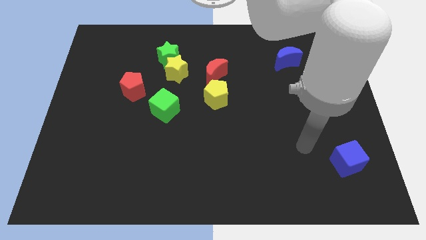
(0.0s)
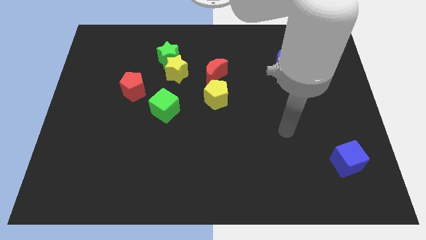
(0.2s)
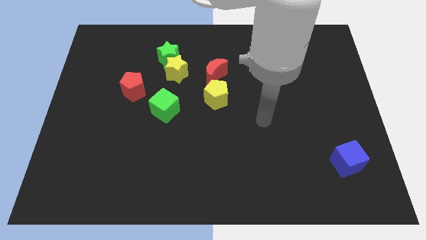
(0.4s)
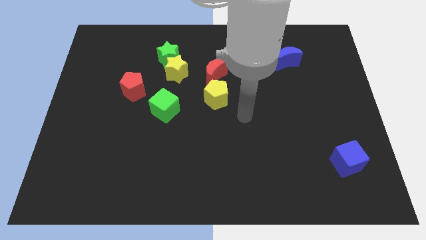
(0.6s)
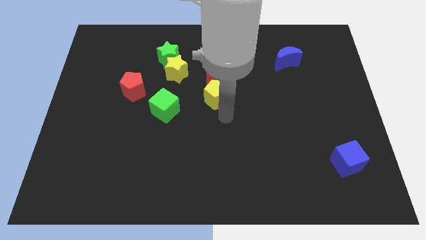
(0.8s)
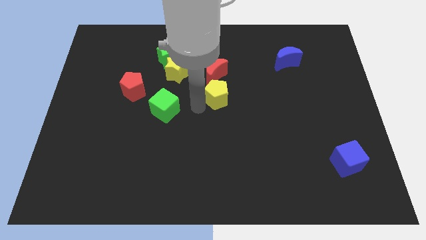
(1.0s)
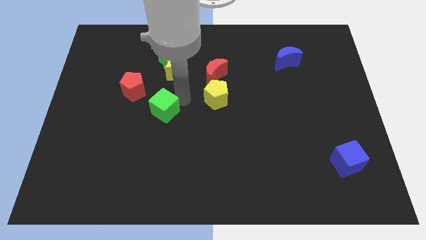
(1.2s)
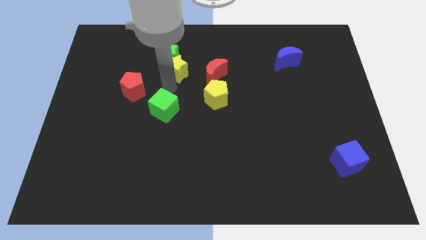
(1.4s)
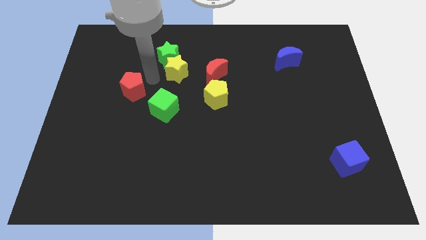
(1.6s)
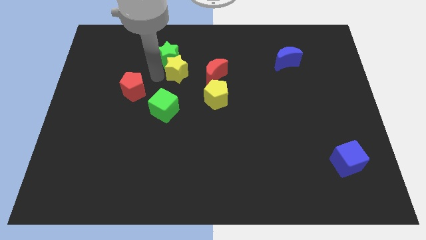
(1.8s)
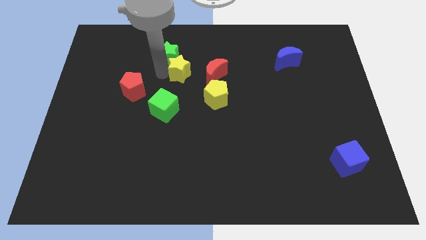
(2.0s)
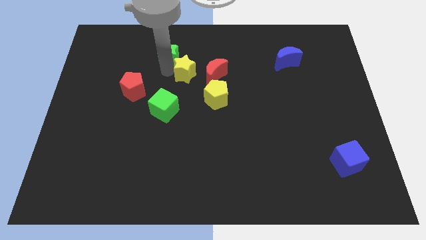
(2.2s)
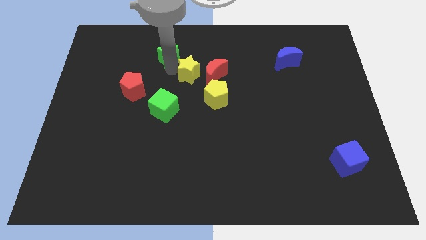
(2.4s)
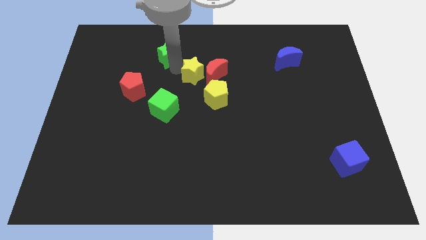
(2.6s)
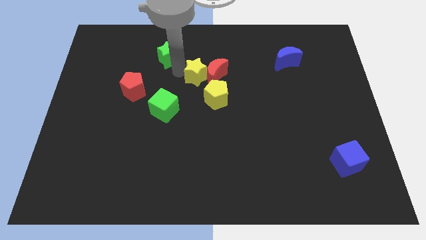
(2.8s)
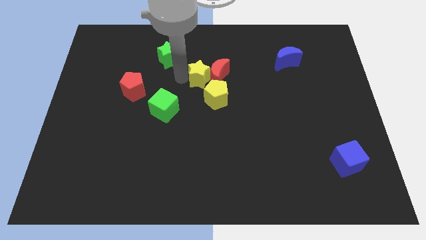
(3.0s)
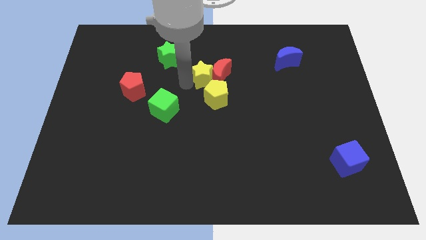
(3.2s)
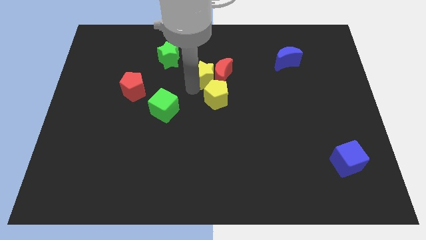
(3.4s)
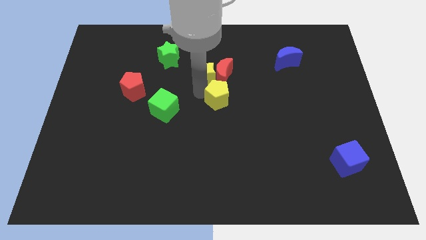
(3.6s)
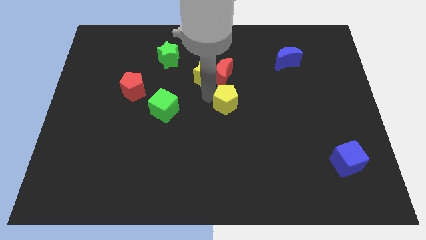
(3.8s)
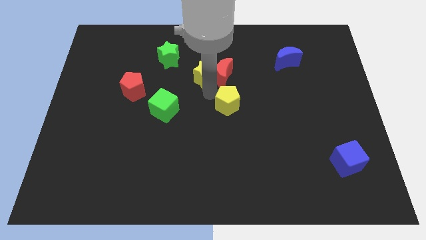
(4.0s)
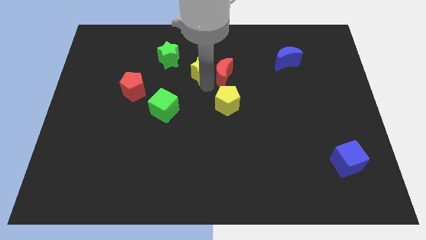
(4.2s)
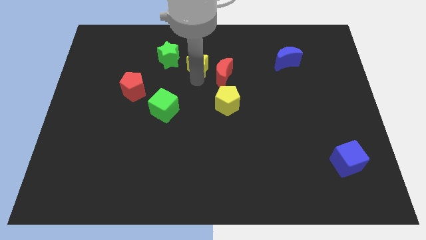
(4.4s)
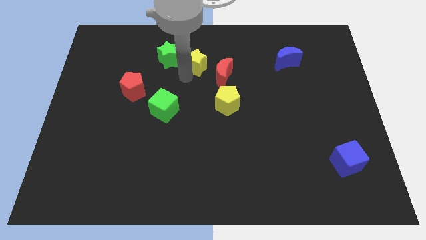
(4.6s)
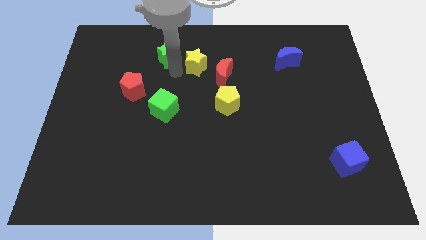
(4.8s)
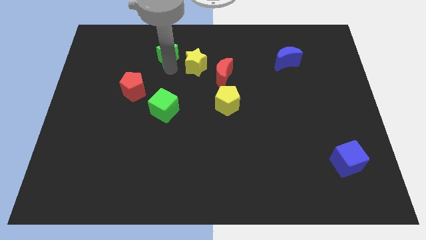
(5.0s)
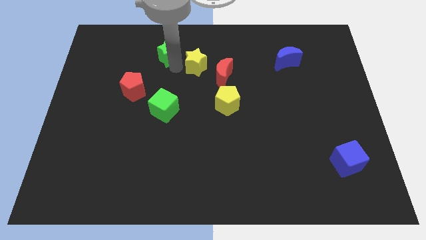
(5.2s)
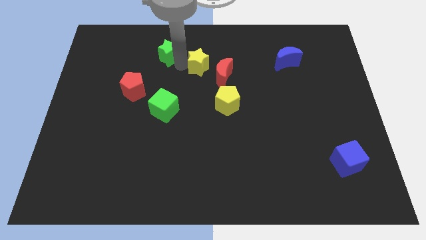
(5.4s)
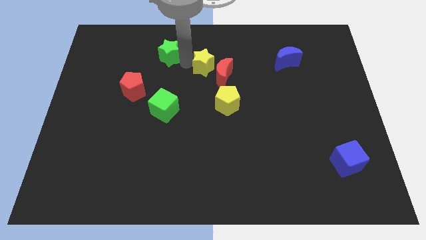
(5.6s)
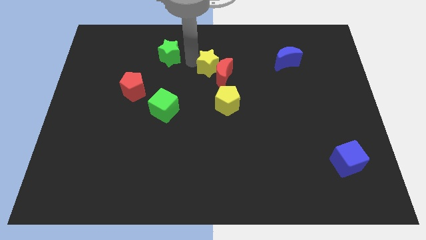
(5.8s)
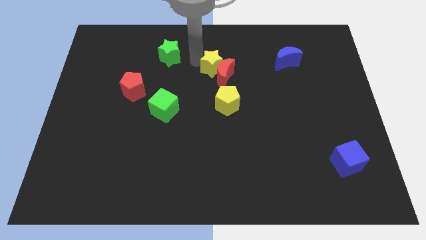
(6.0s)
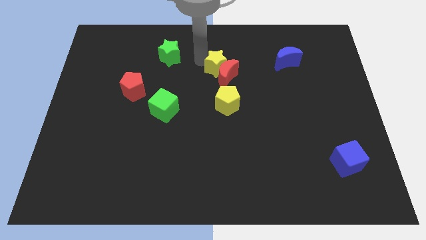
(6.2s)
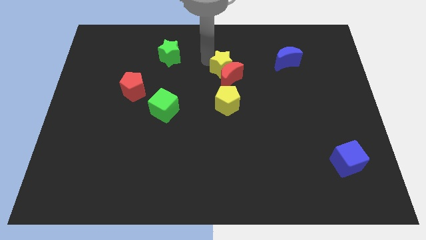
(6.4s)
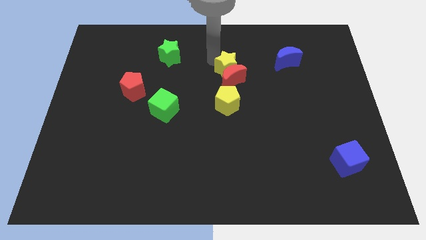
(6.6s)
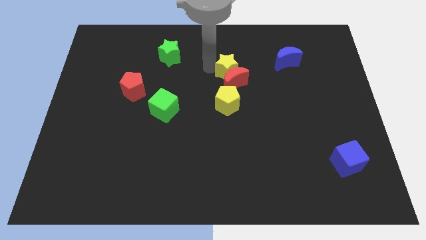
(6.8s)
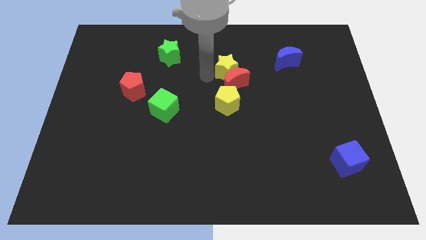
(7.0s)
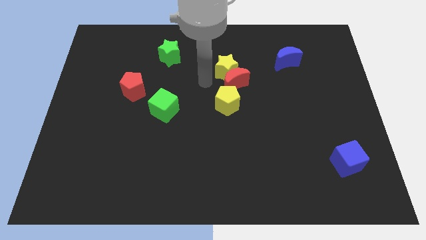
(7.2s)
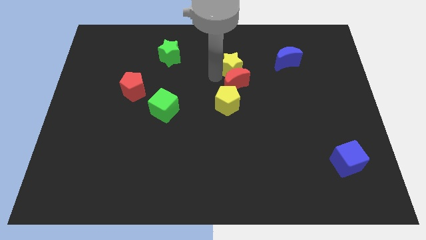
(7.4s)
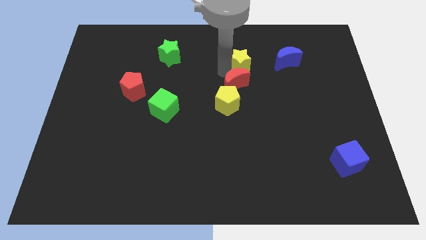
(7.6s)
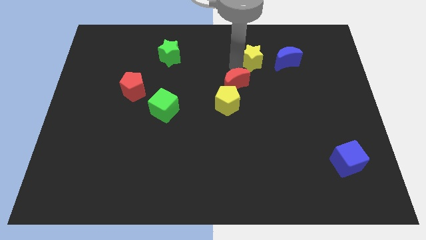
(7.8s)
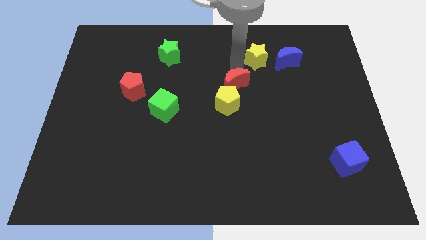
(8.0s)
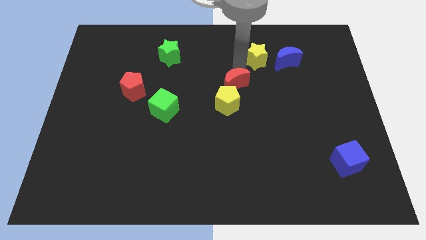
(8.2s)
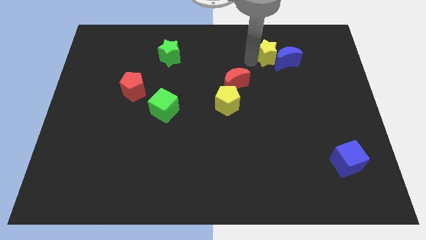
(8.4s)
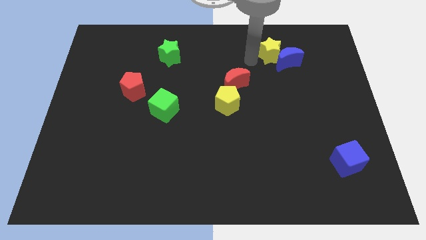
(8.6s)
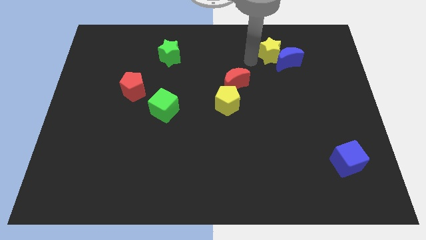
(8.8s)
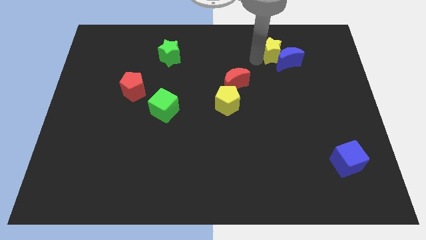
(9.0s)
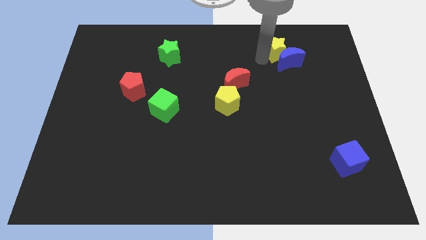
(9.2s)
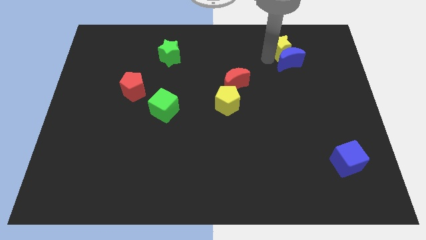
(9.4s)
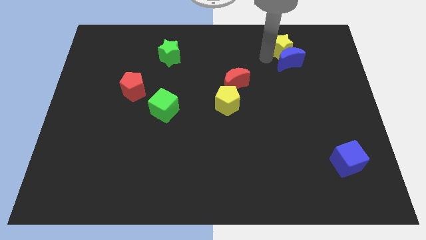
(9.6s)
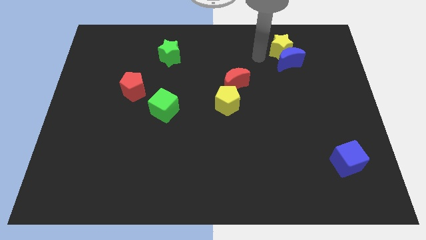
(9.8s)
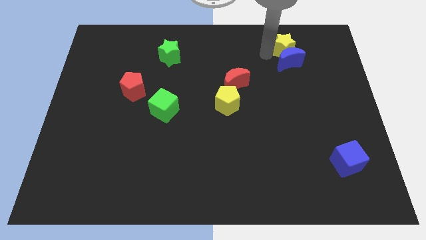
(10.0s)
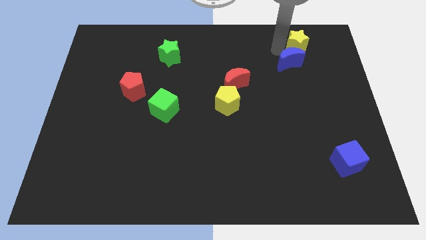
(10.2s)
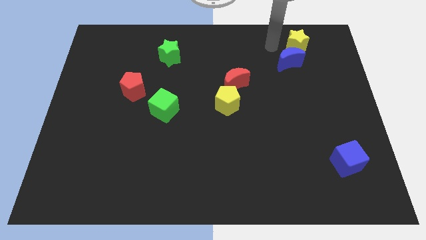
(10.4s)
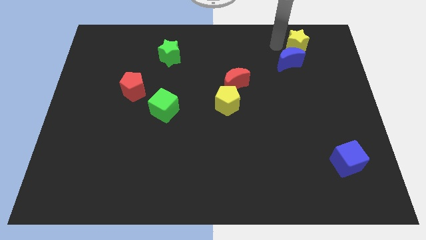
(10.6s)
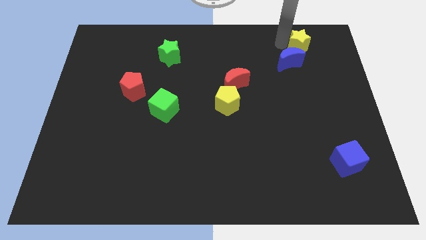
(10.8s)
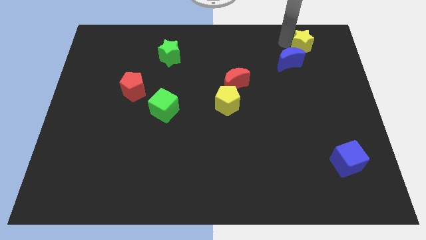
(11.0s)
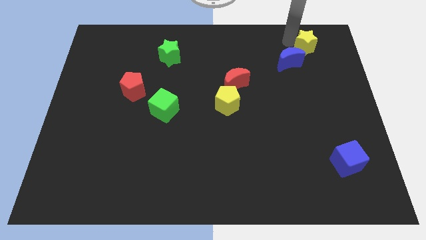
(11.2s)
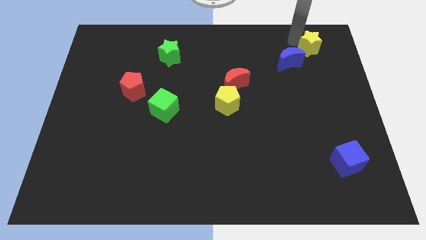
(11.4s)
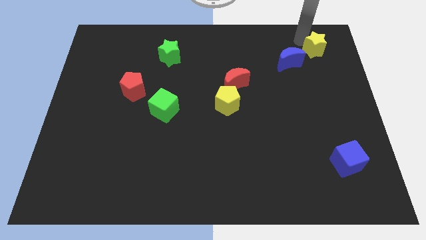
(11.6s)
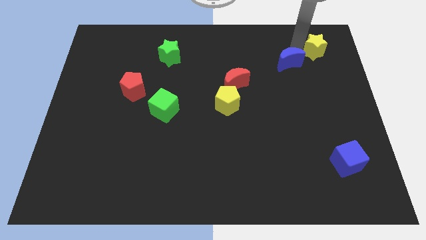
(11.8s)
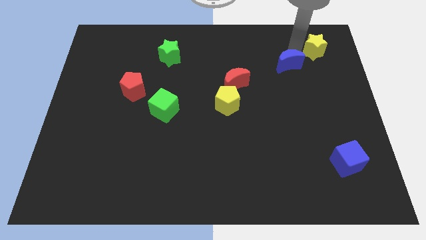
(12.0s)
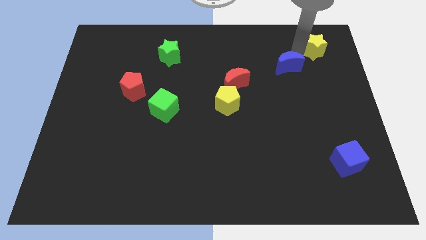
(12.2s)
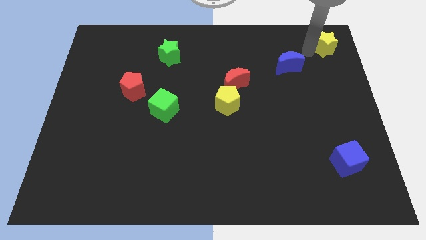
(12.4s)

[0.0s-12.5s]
push the yellow star to the upper right corner

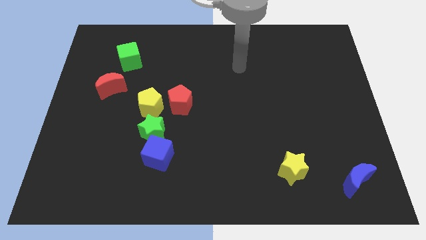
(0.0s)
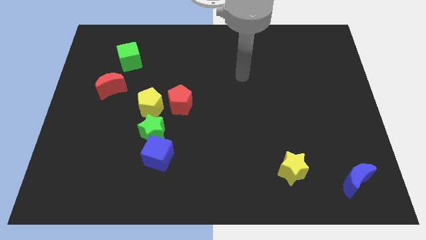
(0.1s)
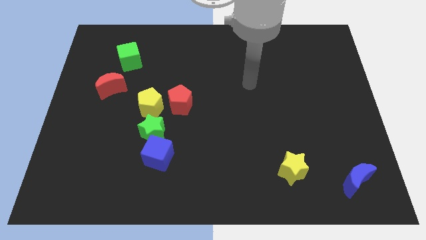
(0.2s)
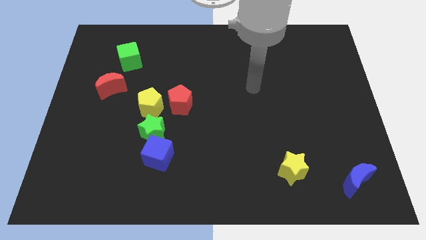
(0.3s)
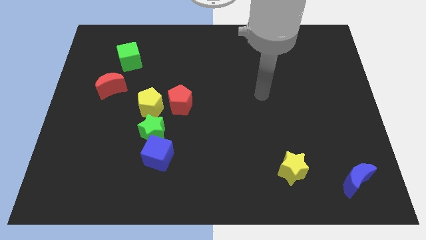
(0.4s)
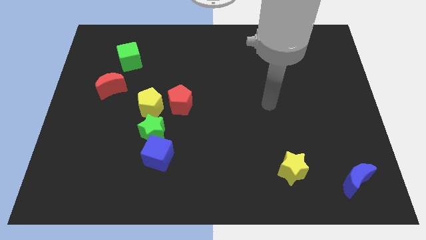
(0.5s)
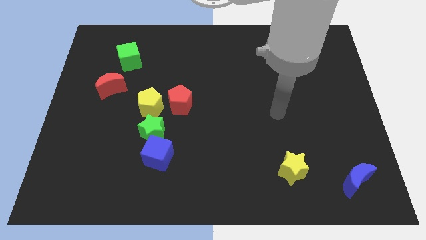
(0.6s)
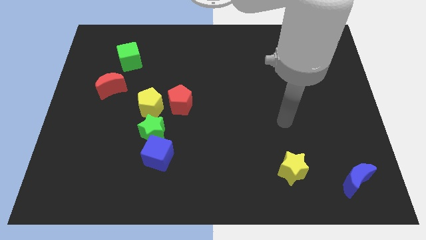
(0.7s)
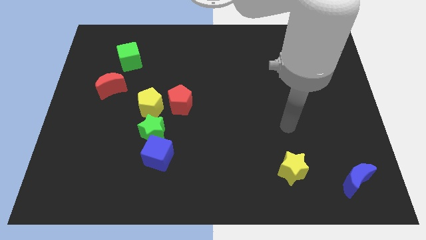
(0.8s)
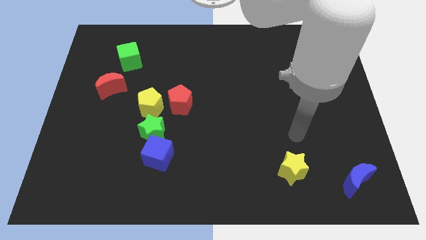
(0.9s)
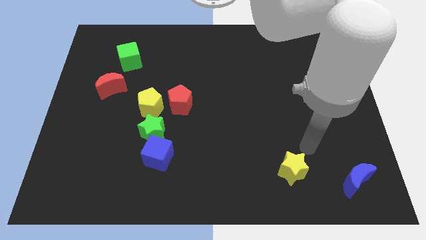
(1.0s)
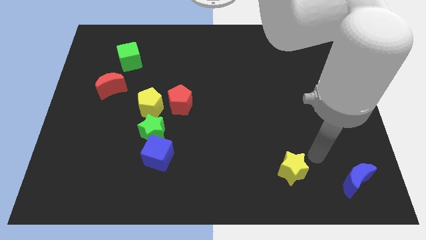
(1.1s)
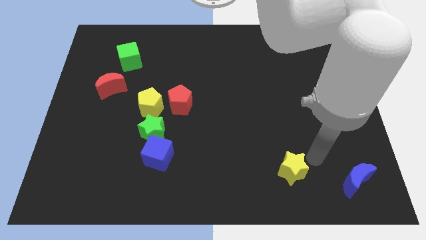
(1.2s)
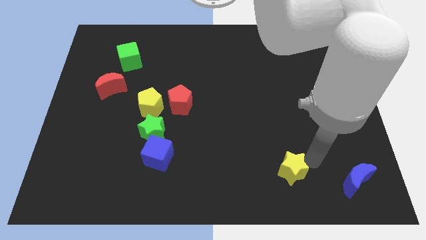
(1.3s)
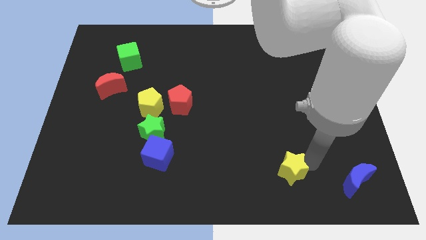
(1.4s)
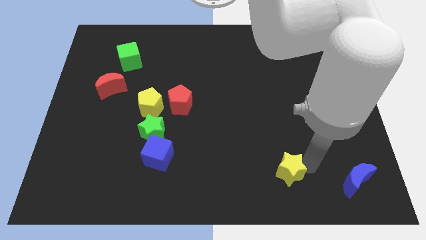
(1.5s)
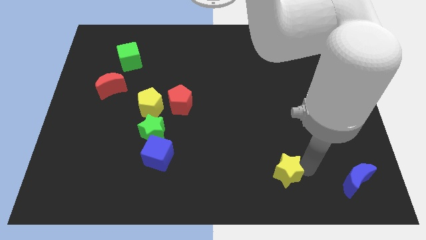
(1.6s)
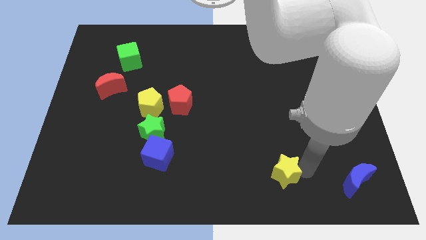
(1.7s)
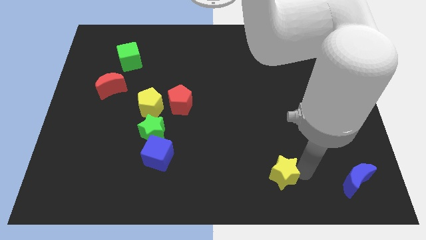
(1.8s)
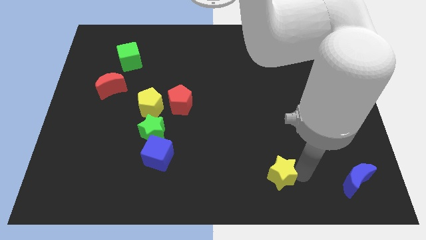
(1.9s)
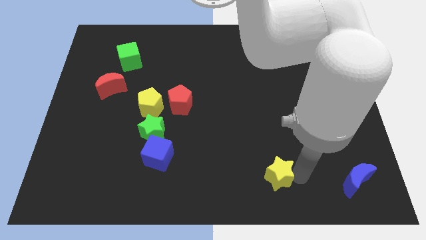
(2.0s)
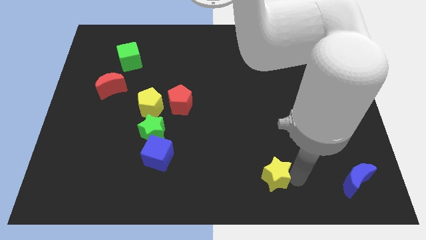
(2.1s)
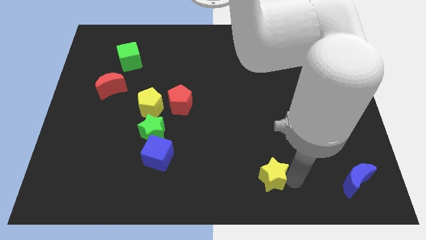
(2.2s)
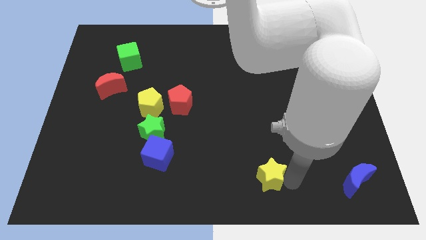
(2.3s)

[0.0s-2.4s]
move the yellow star to the bottom side
